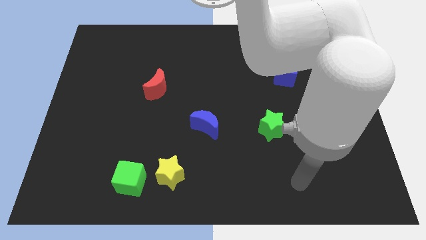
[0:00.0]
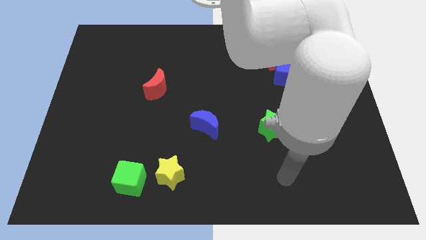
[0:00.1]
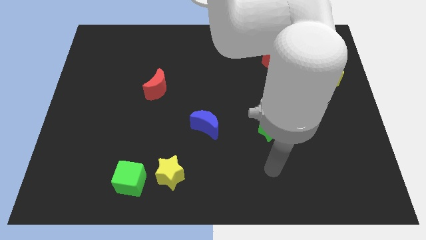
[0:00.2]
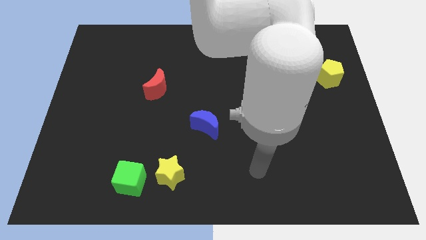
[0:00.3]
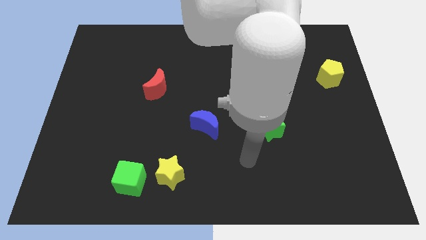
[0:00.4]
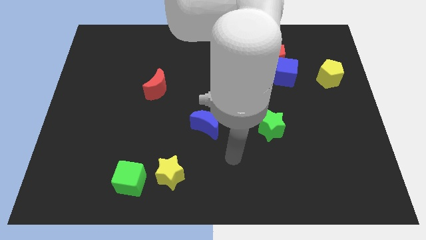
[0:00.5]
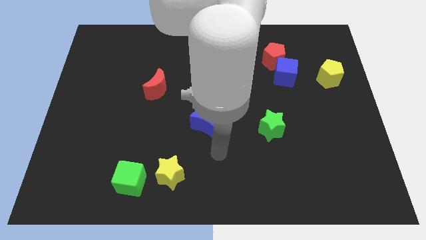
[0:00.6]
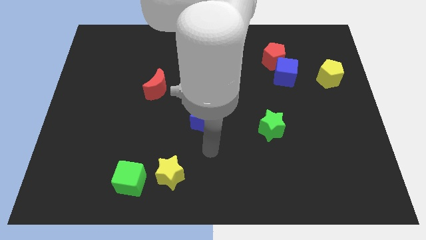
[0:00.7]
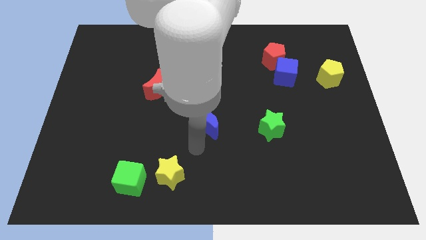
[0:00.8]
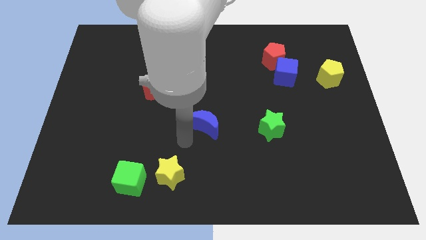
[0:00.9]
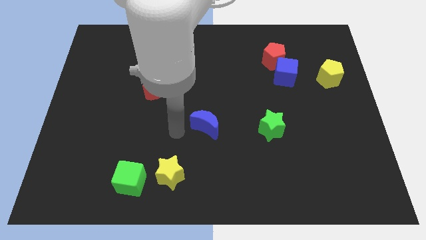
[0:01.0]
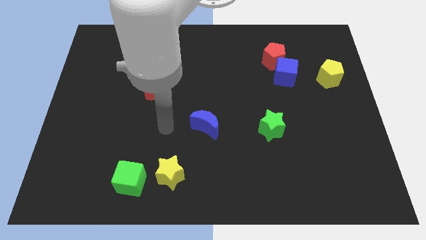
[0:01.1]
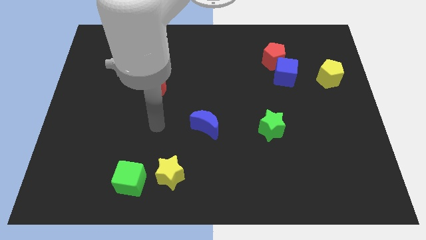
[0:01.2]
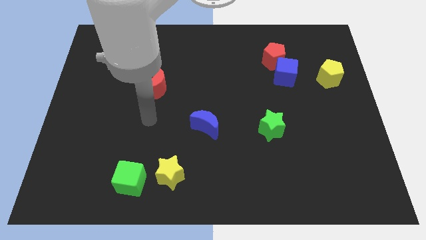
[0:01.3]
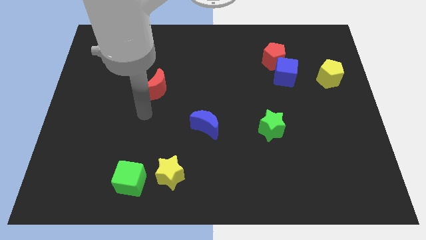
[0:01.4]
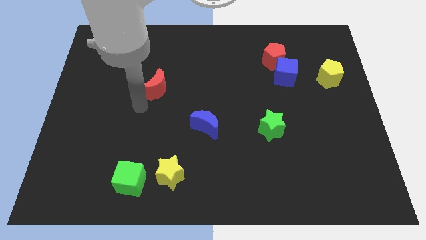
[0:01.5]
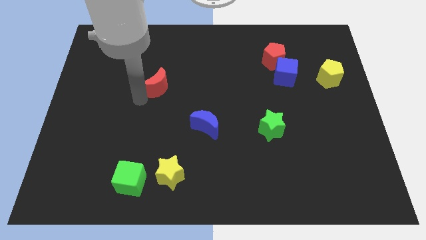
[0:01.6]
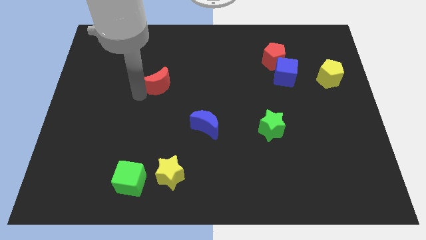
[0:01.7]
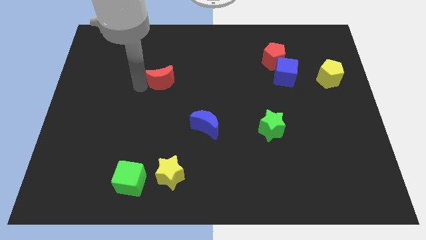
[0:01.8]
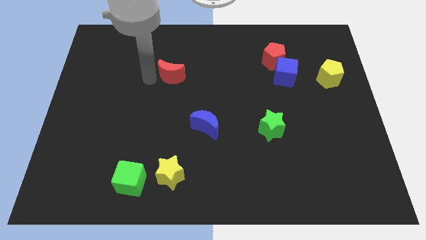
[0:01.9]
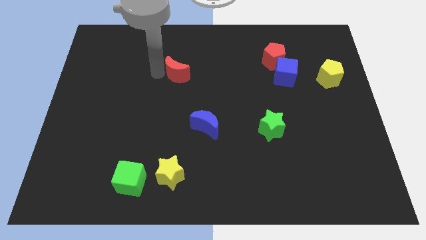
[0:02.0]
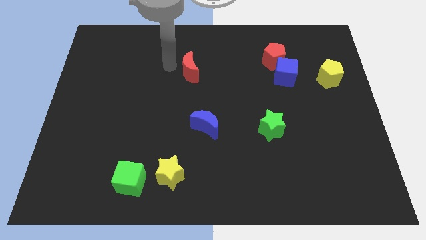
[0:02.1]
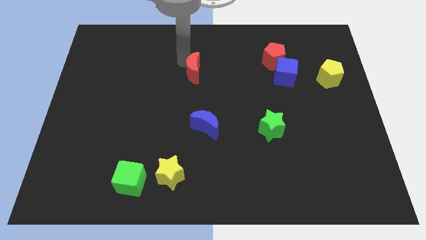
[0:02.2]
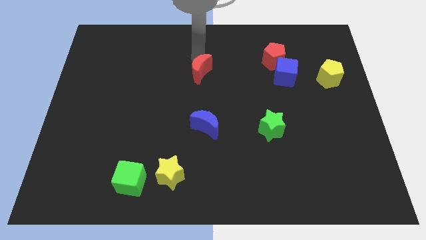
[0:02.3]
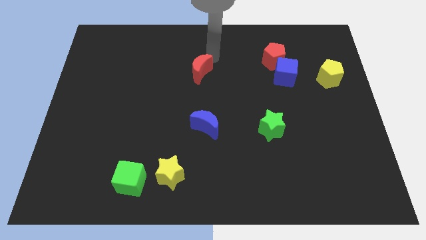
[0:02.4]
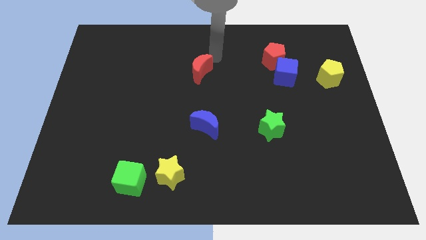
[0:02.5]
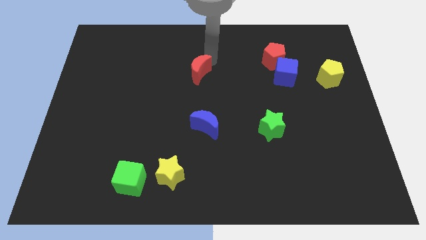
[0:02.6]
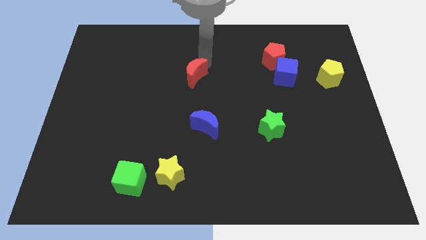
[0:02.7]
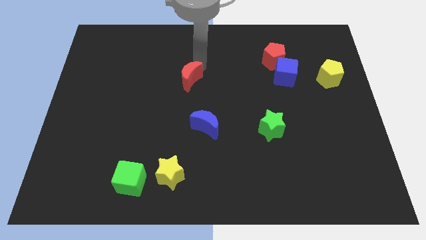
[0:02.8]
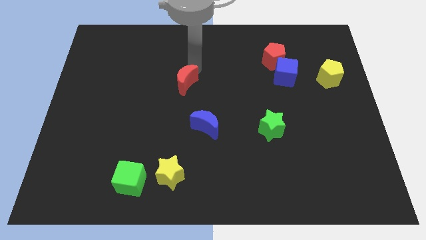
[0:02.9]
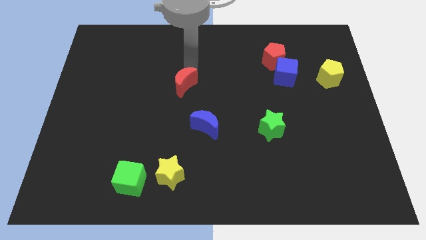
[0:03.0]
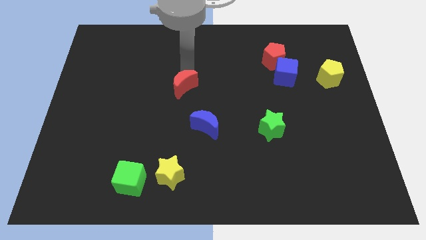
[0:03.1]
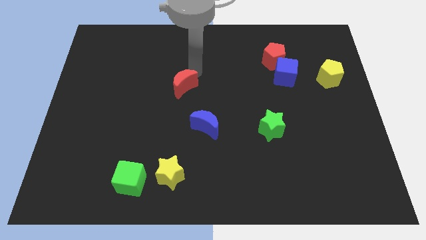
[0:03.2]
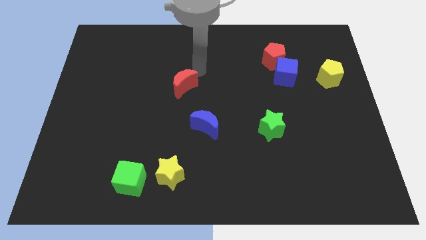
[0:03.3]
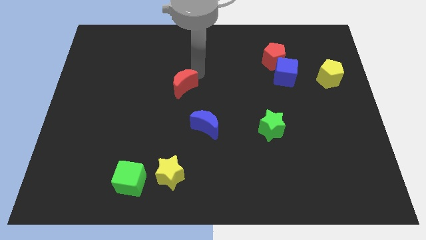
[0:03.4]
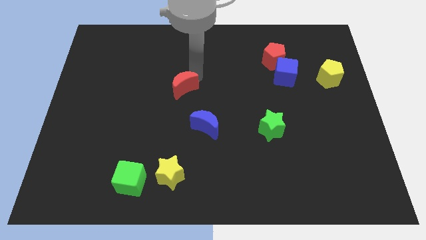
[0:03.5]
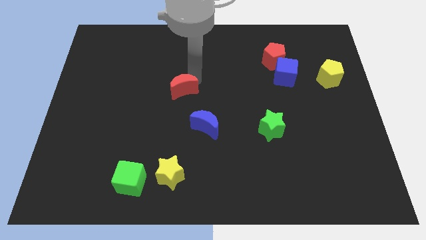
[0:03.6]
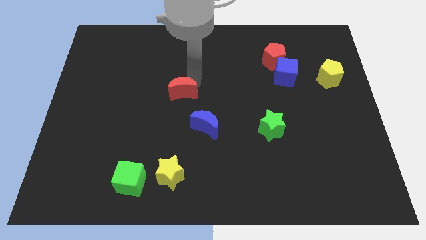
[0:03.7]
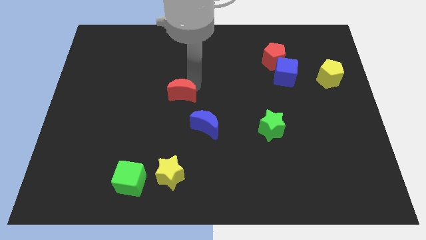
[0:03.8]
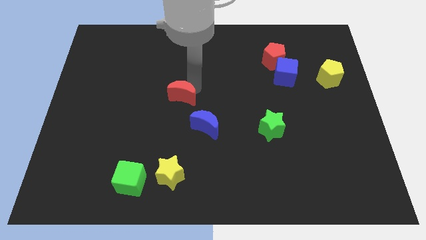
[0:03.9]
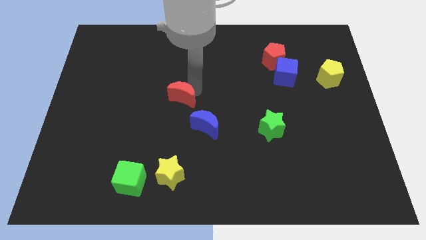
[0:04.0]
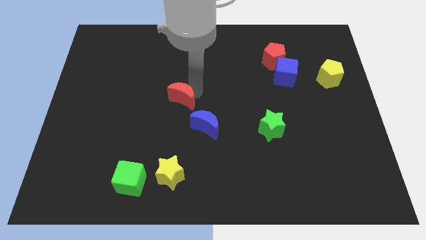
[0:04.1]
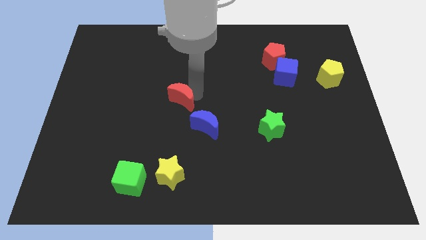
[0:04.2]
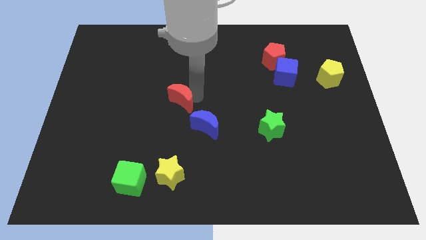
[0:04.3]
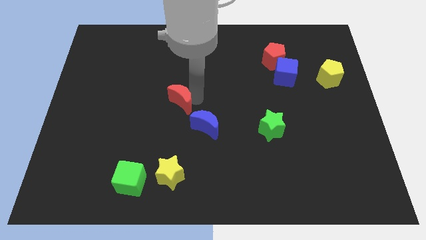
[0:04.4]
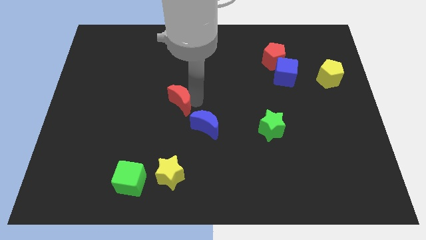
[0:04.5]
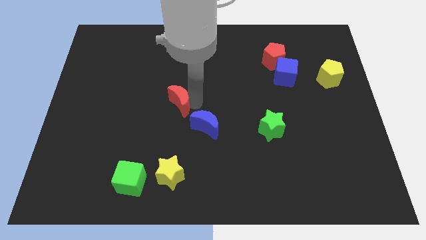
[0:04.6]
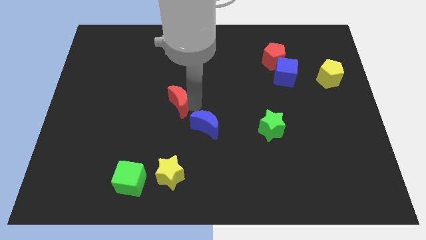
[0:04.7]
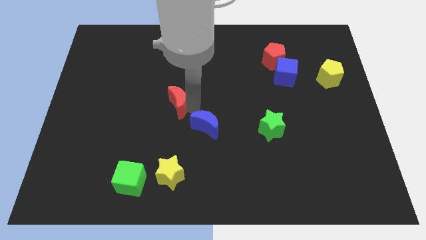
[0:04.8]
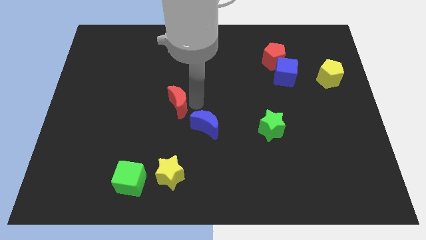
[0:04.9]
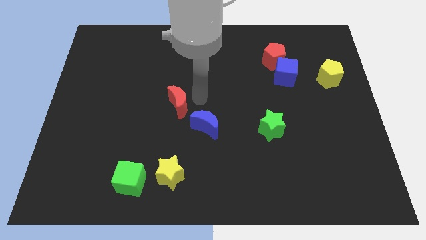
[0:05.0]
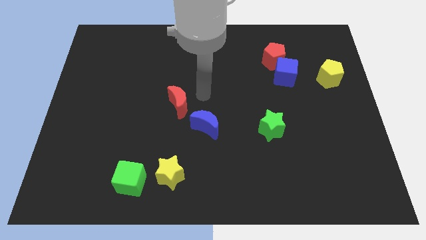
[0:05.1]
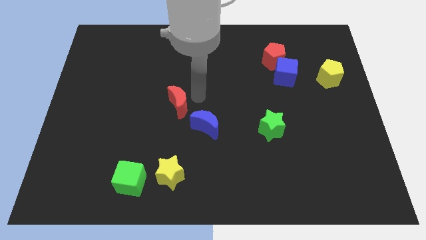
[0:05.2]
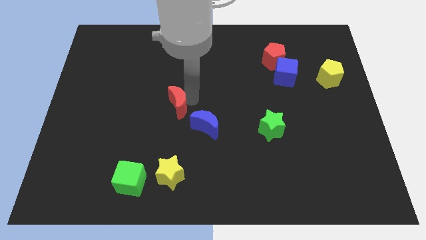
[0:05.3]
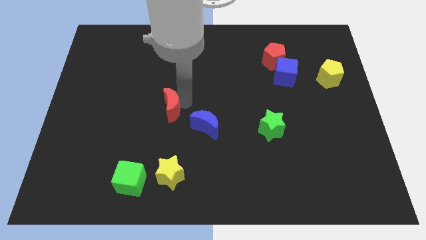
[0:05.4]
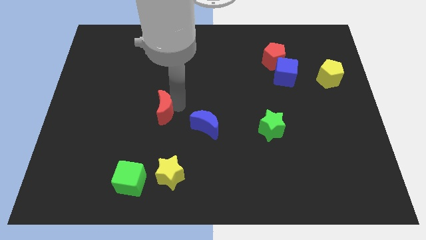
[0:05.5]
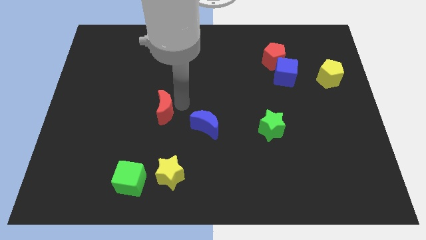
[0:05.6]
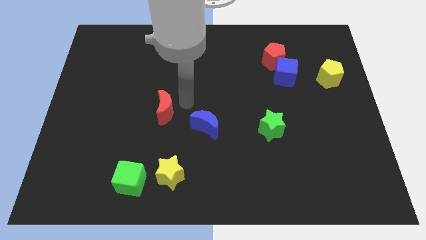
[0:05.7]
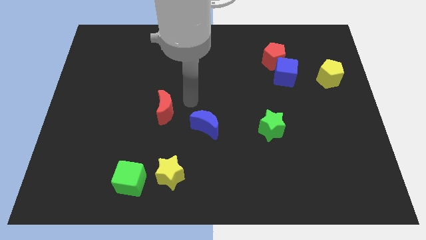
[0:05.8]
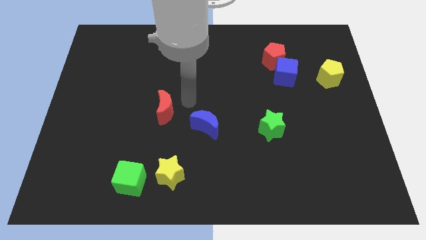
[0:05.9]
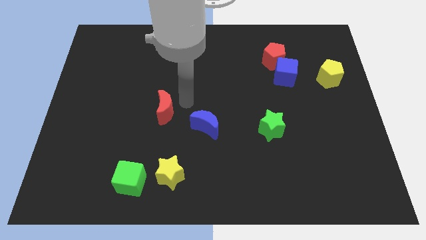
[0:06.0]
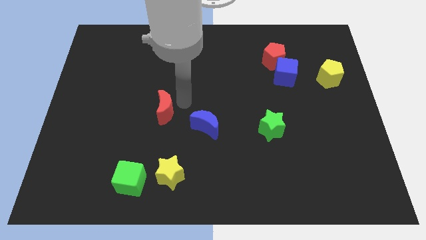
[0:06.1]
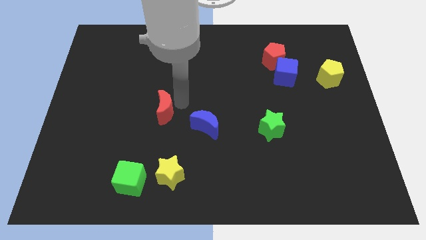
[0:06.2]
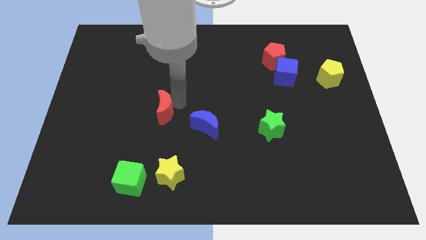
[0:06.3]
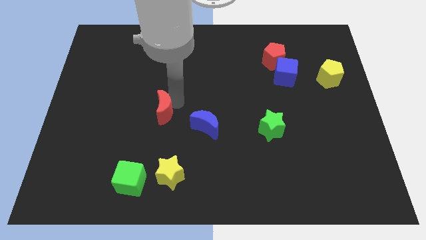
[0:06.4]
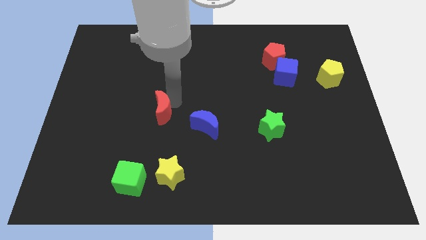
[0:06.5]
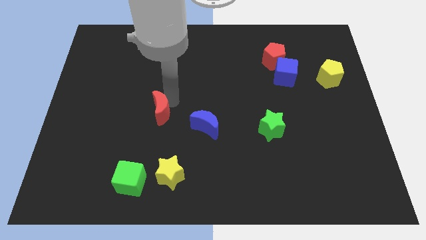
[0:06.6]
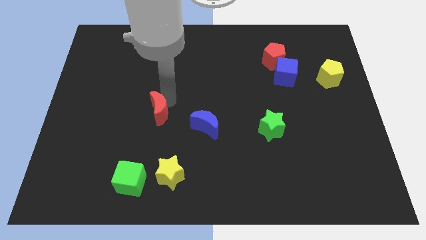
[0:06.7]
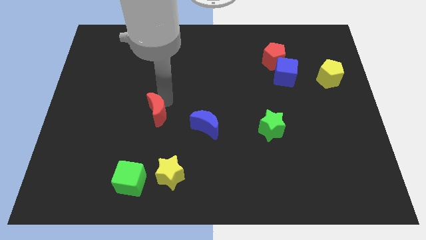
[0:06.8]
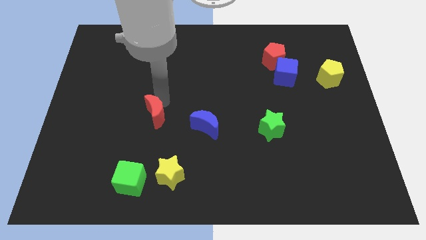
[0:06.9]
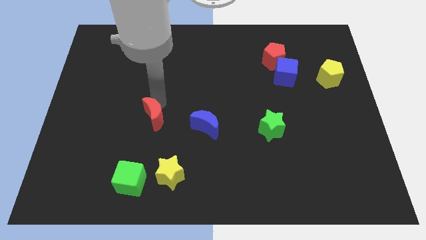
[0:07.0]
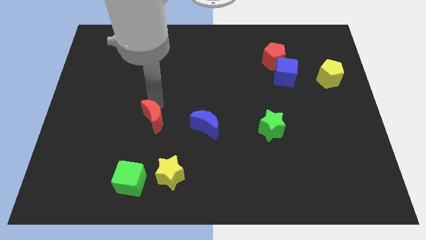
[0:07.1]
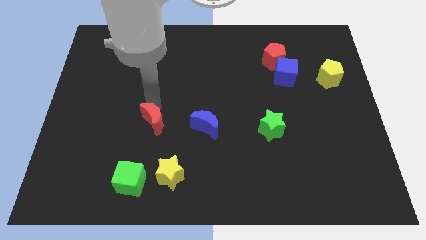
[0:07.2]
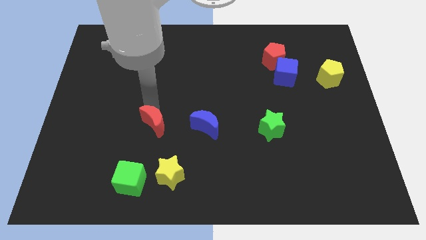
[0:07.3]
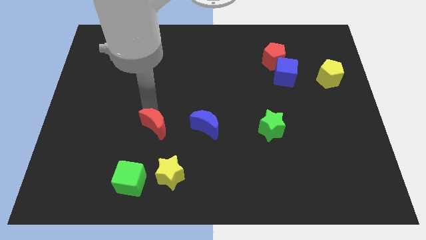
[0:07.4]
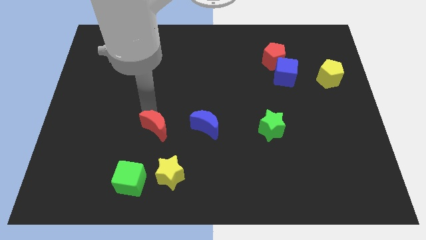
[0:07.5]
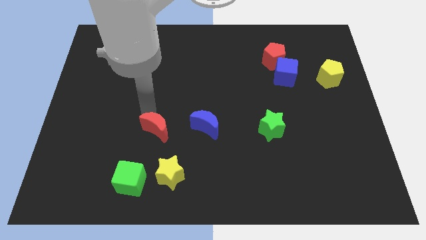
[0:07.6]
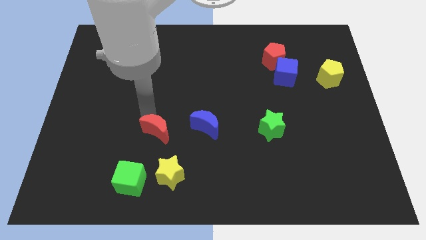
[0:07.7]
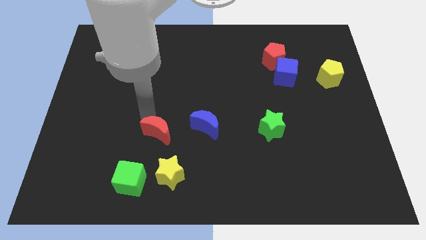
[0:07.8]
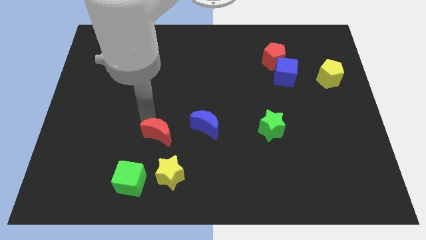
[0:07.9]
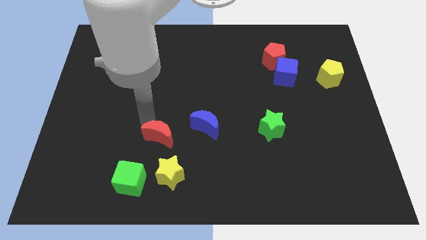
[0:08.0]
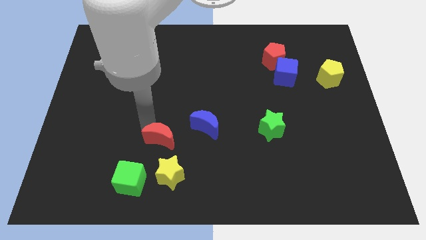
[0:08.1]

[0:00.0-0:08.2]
put the red moon to the top right of the green cube
